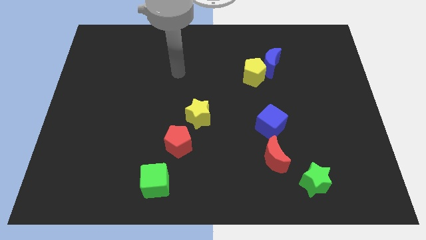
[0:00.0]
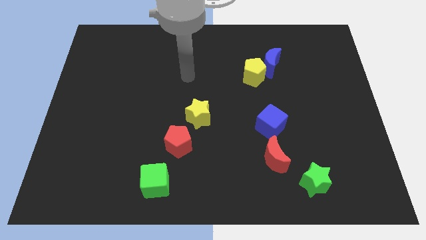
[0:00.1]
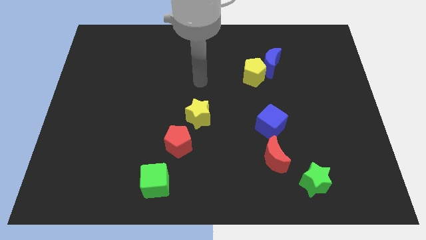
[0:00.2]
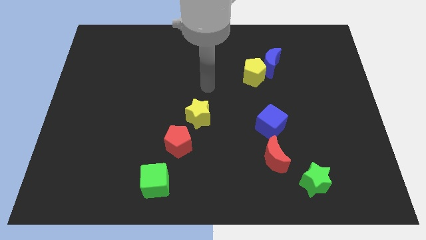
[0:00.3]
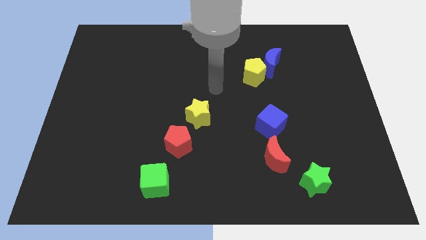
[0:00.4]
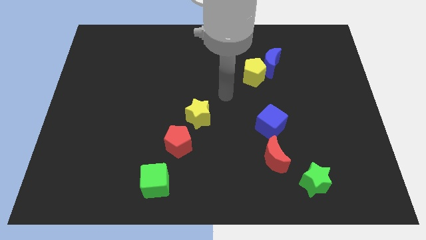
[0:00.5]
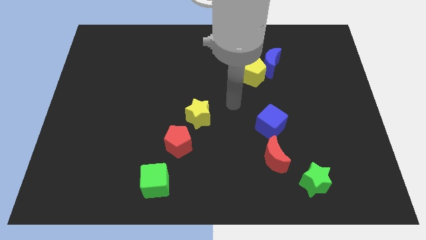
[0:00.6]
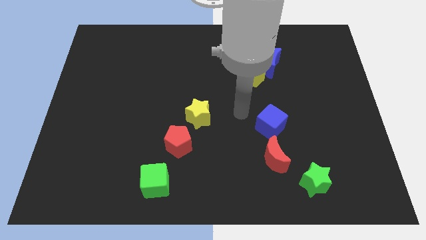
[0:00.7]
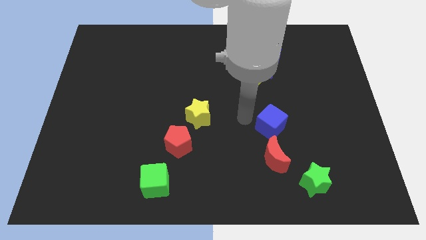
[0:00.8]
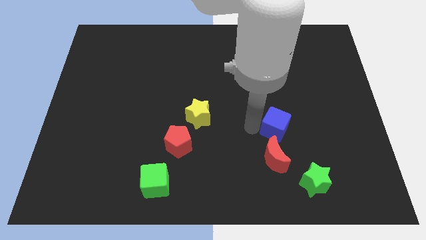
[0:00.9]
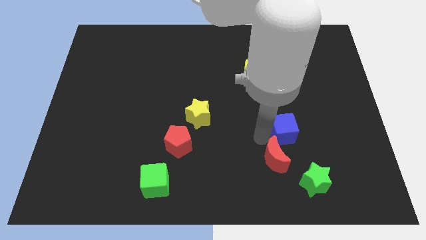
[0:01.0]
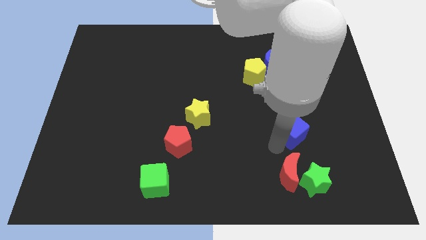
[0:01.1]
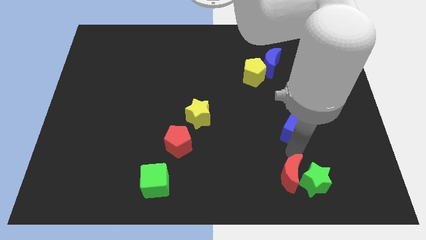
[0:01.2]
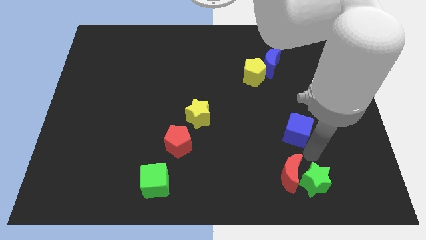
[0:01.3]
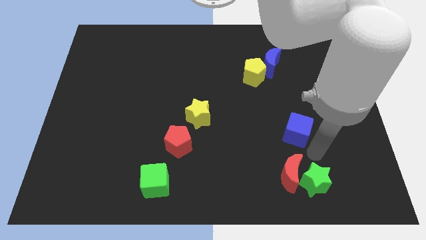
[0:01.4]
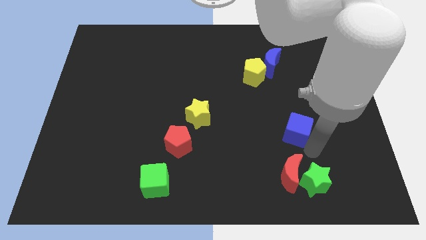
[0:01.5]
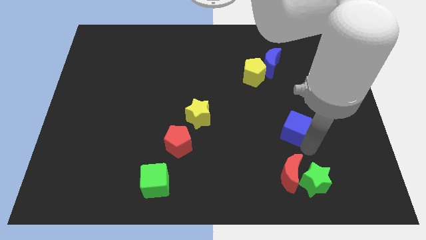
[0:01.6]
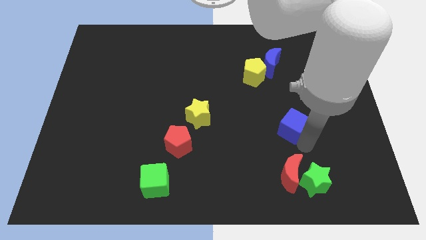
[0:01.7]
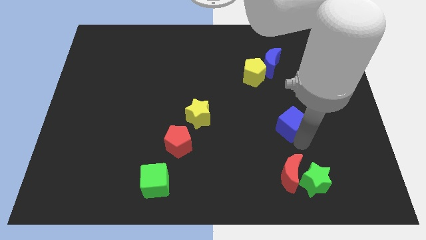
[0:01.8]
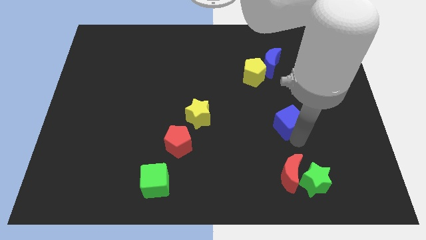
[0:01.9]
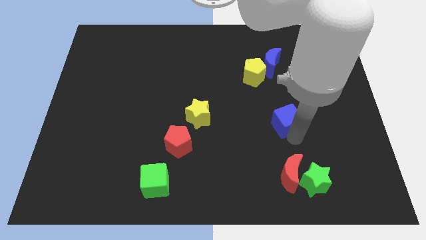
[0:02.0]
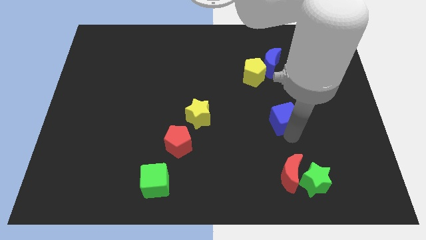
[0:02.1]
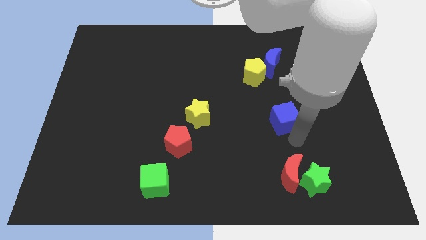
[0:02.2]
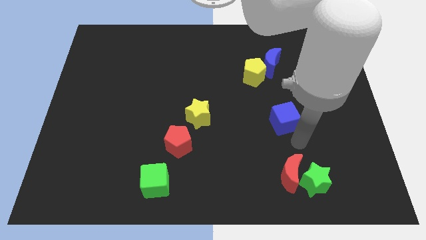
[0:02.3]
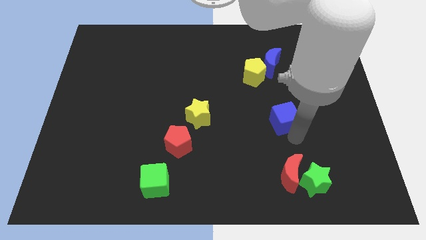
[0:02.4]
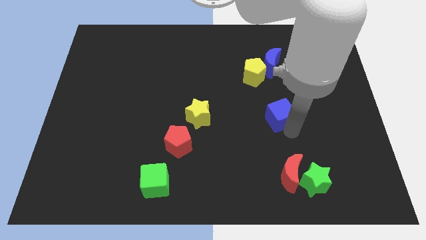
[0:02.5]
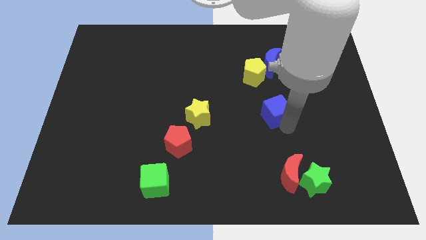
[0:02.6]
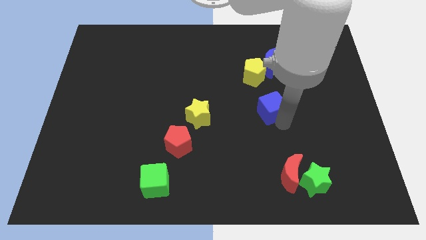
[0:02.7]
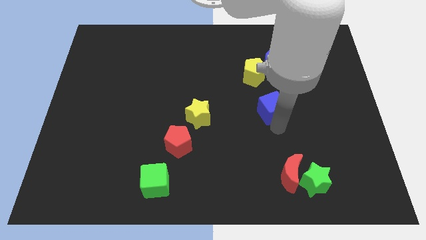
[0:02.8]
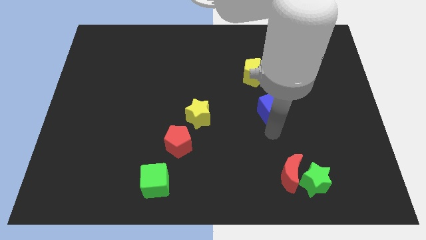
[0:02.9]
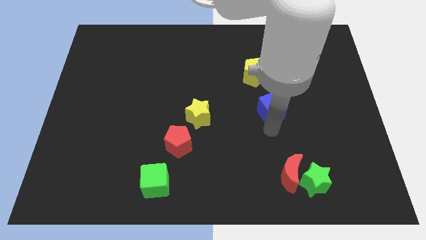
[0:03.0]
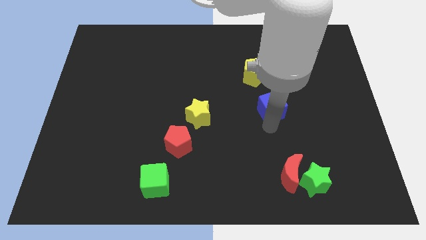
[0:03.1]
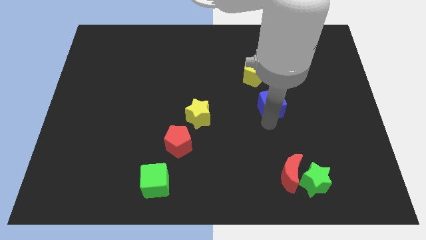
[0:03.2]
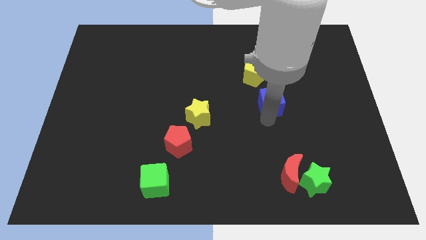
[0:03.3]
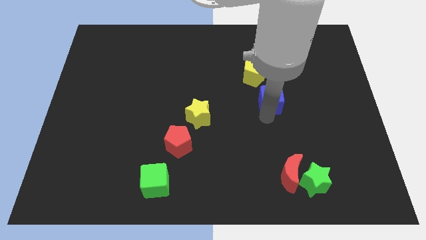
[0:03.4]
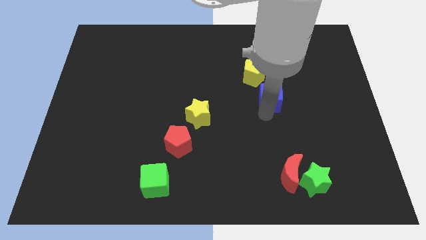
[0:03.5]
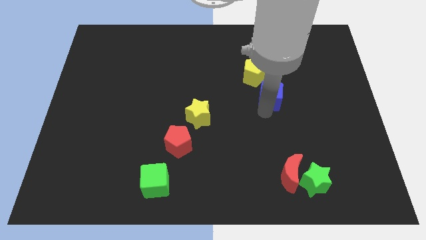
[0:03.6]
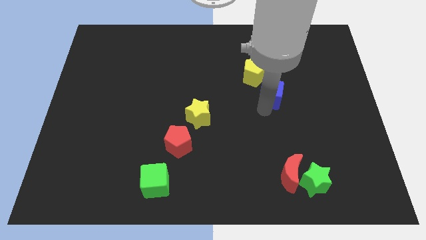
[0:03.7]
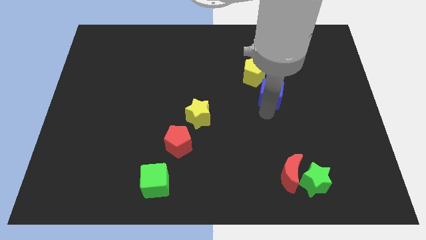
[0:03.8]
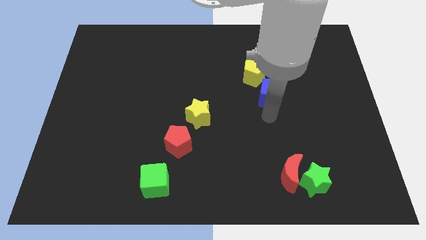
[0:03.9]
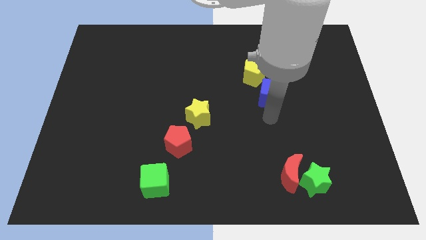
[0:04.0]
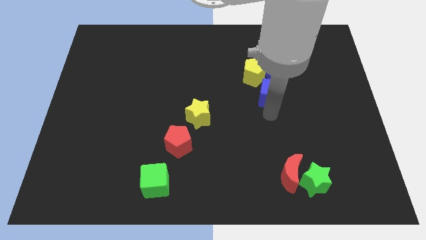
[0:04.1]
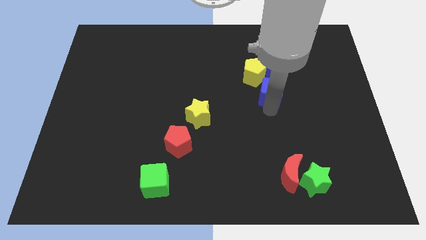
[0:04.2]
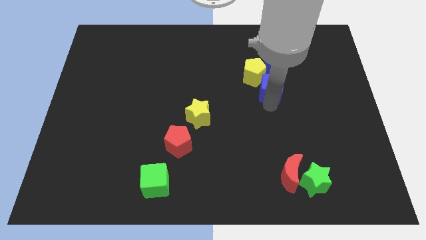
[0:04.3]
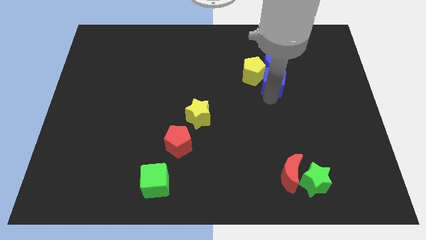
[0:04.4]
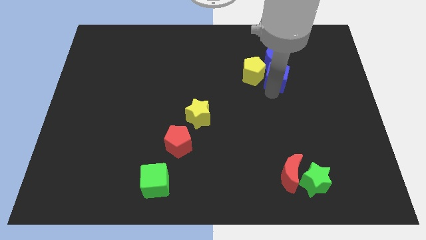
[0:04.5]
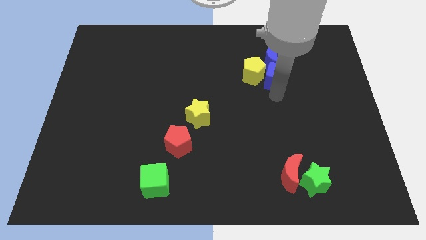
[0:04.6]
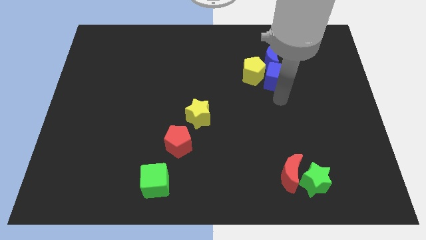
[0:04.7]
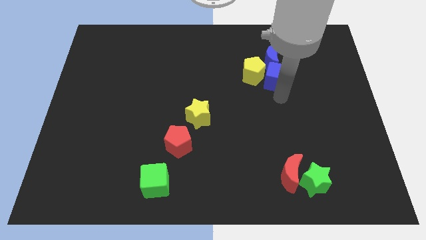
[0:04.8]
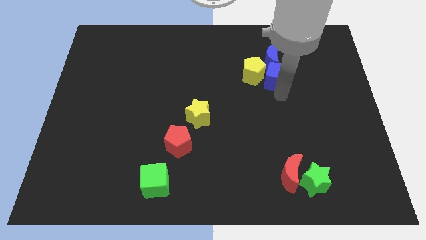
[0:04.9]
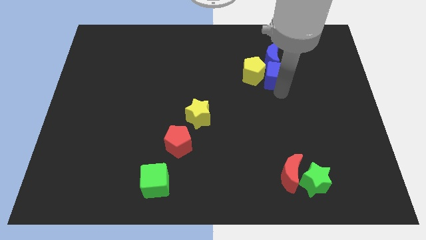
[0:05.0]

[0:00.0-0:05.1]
slide the blue cube to the blue moon

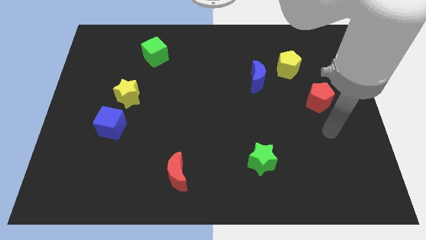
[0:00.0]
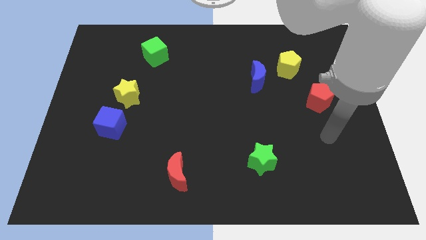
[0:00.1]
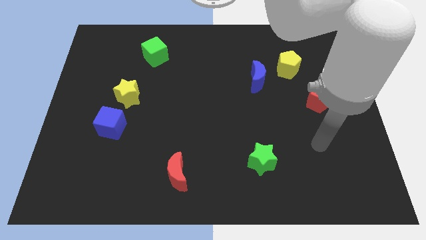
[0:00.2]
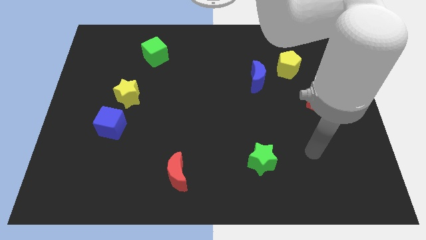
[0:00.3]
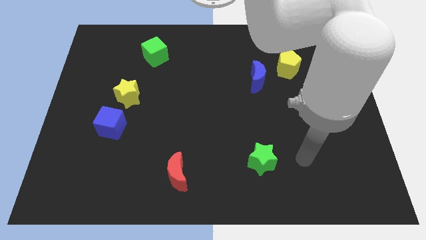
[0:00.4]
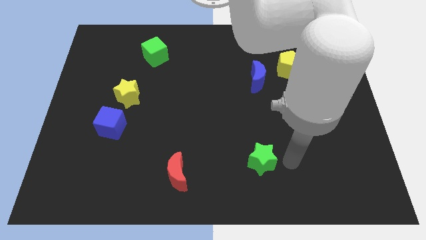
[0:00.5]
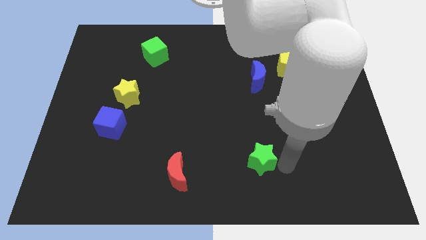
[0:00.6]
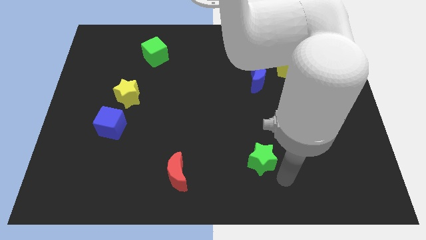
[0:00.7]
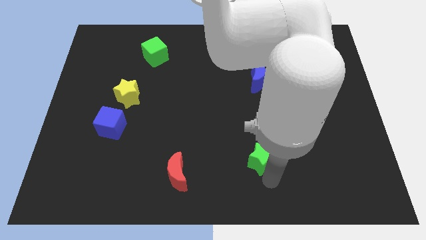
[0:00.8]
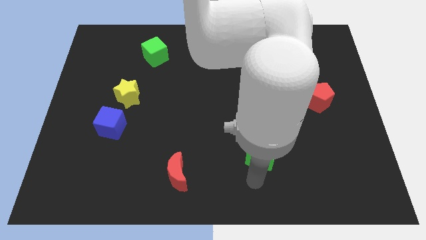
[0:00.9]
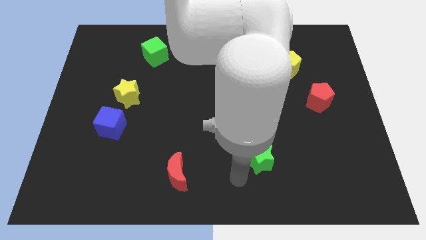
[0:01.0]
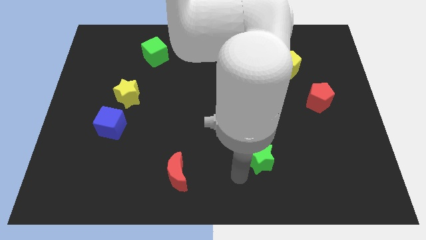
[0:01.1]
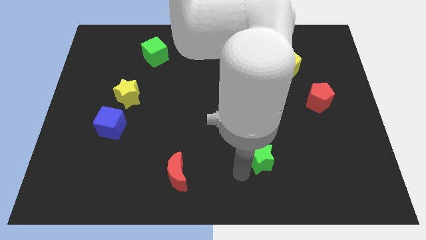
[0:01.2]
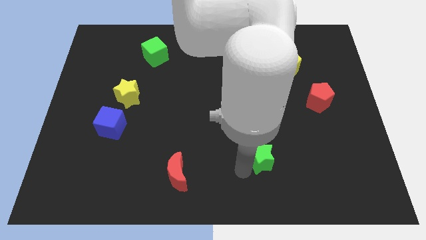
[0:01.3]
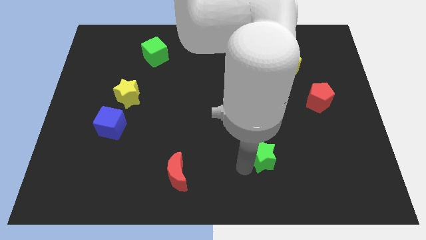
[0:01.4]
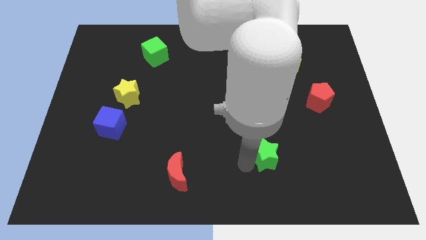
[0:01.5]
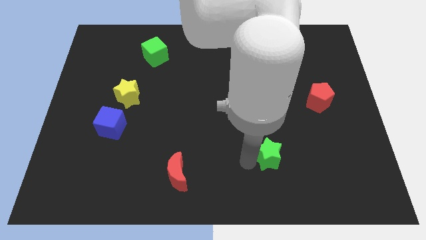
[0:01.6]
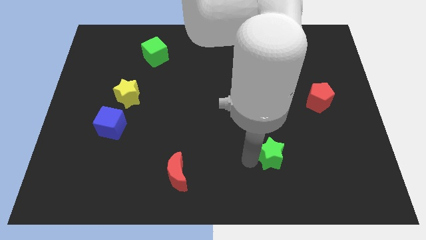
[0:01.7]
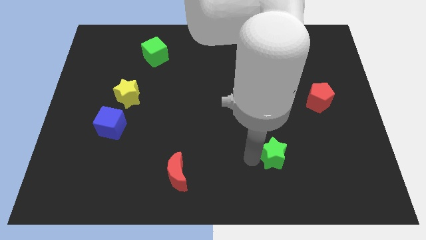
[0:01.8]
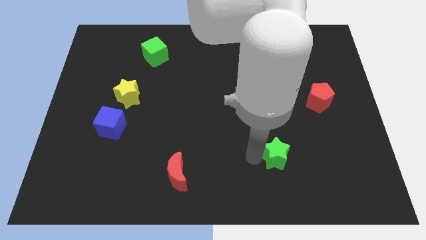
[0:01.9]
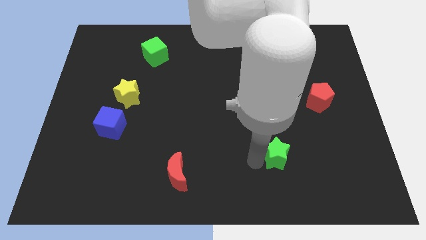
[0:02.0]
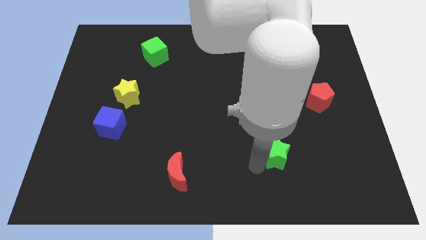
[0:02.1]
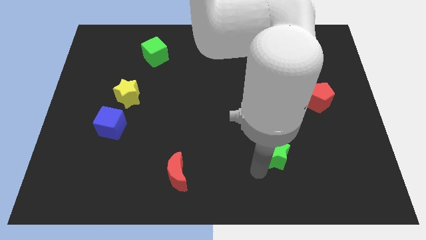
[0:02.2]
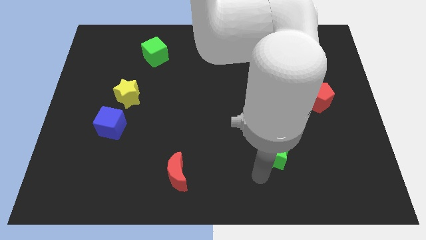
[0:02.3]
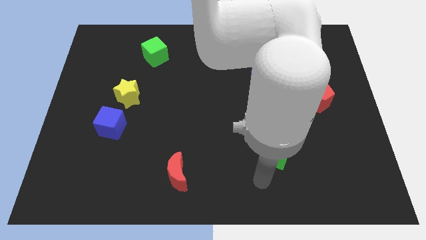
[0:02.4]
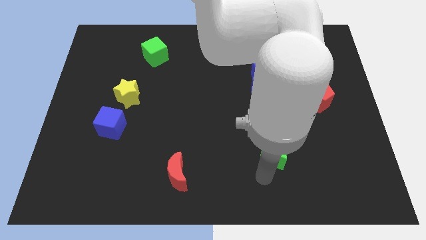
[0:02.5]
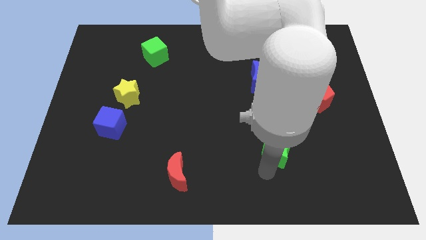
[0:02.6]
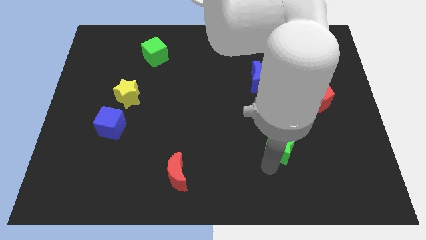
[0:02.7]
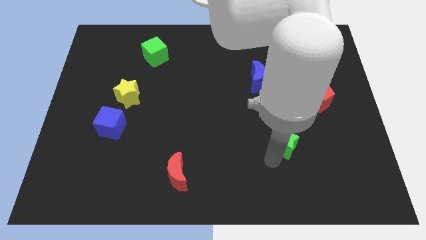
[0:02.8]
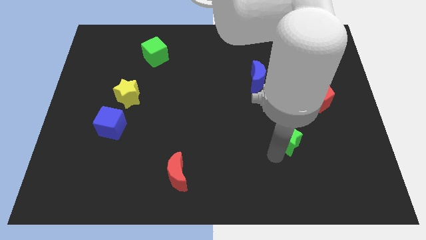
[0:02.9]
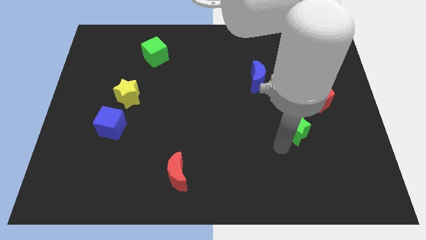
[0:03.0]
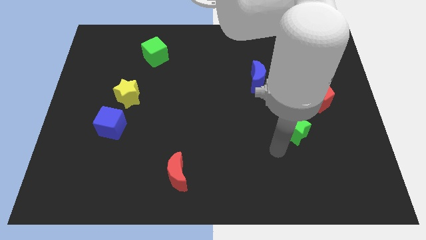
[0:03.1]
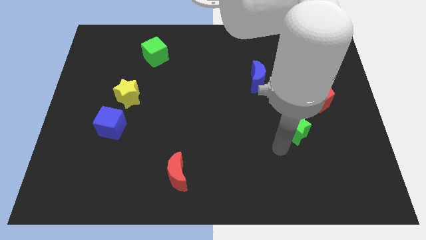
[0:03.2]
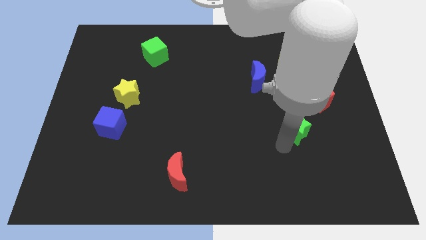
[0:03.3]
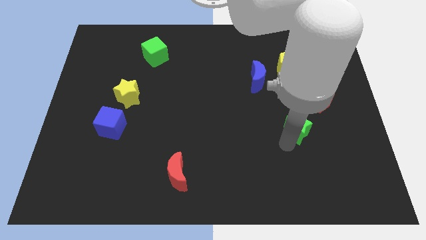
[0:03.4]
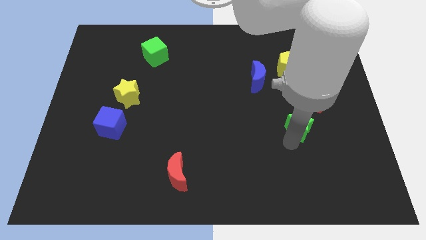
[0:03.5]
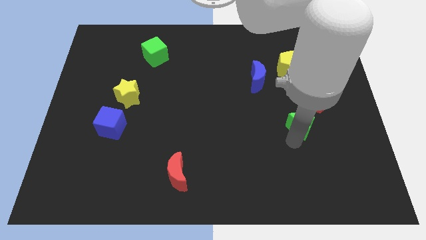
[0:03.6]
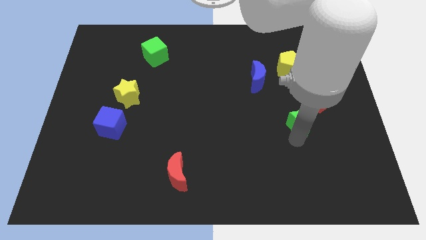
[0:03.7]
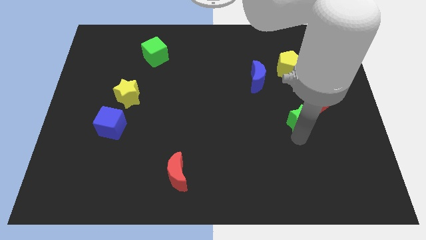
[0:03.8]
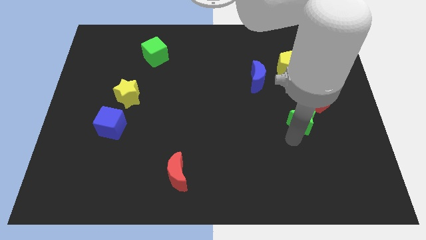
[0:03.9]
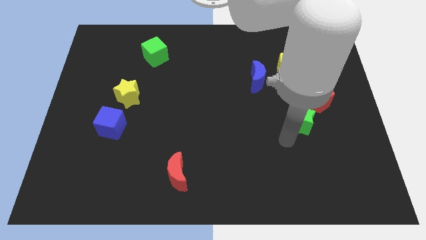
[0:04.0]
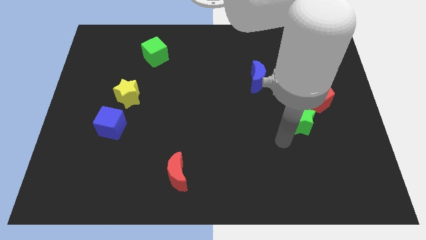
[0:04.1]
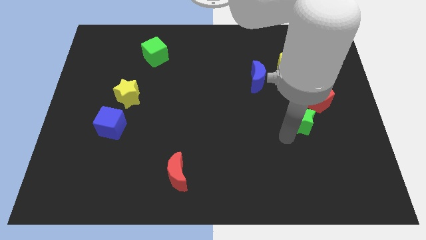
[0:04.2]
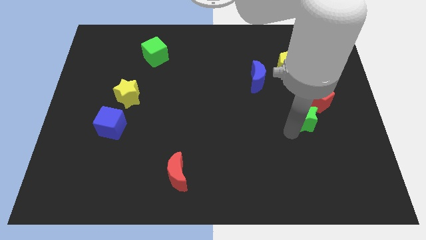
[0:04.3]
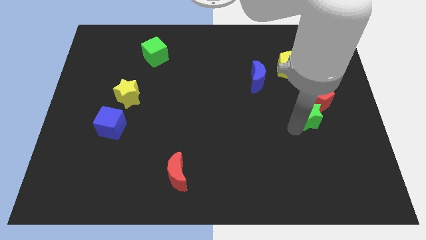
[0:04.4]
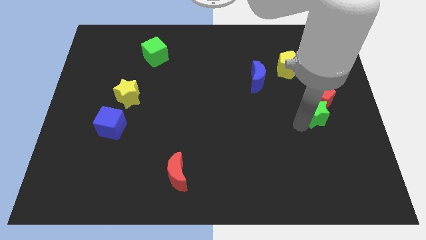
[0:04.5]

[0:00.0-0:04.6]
push the green star close to the red pentagon
